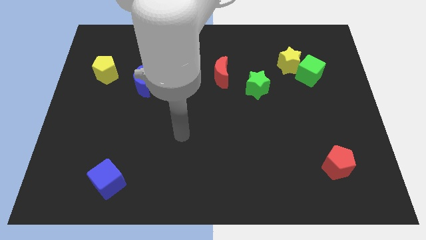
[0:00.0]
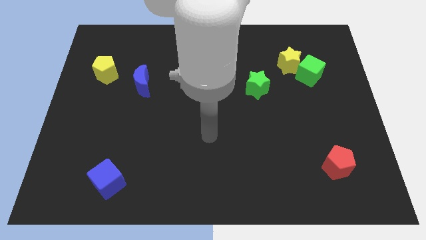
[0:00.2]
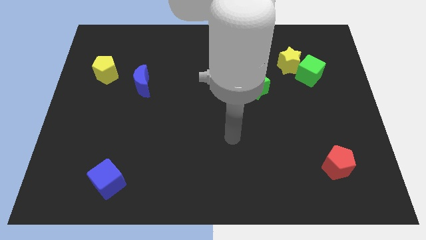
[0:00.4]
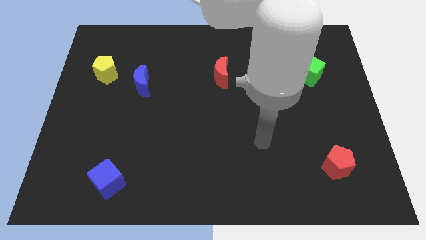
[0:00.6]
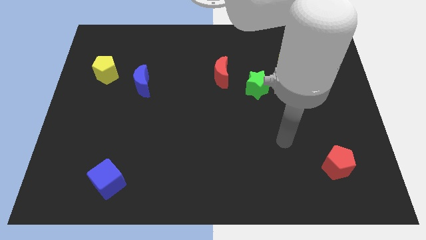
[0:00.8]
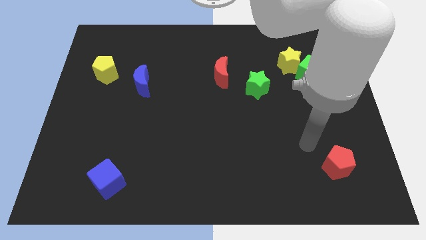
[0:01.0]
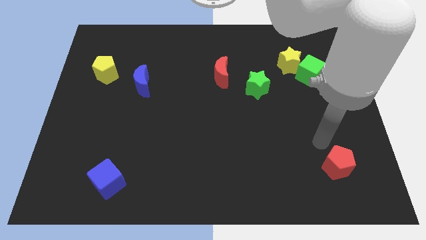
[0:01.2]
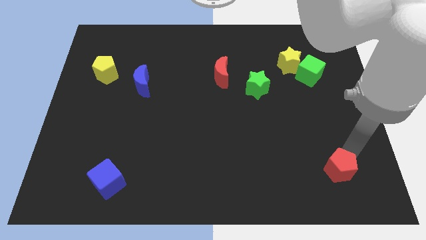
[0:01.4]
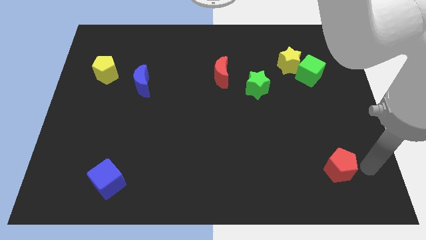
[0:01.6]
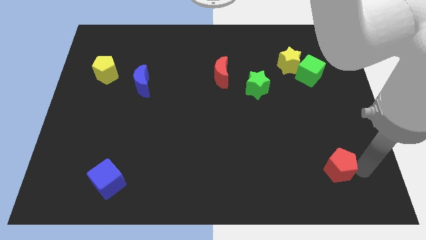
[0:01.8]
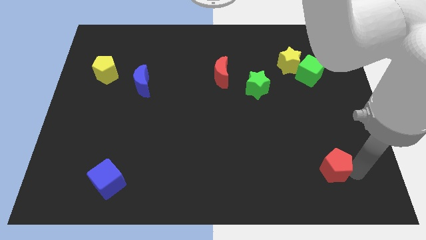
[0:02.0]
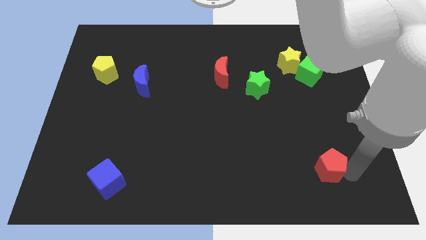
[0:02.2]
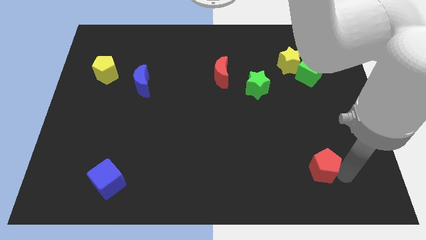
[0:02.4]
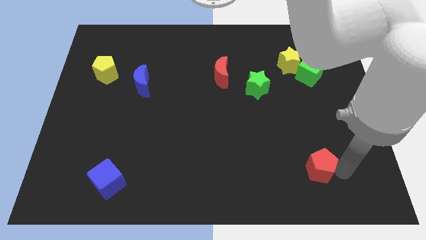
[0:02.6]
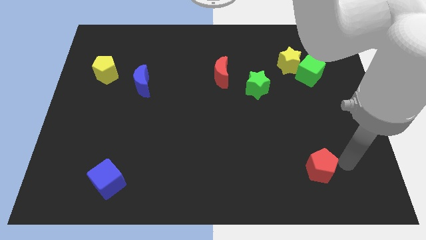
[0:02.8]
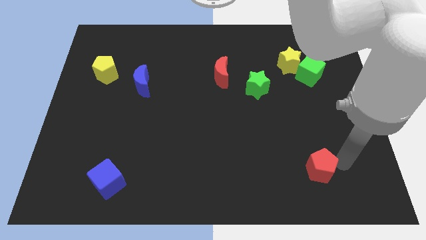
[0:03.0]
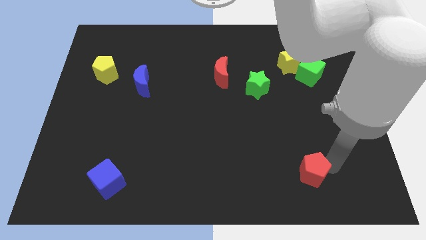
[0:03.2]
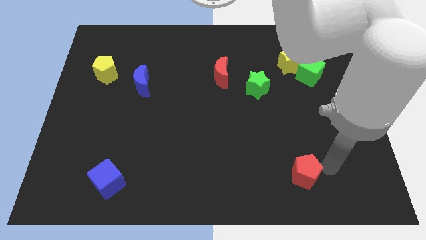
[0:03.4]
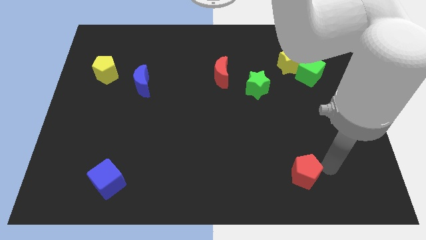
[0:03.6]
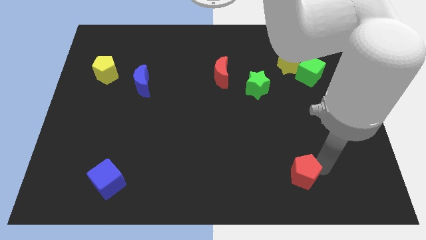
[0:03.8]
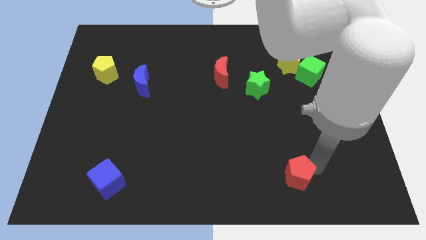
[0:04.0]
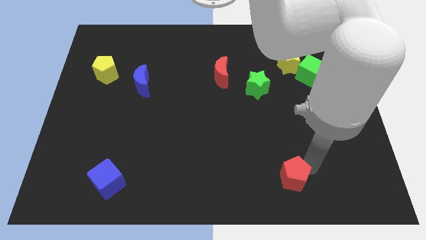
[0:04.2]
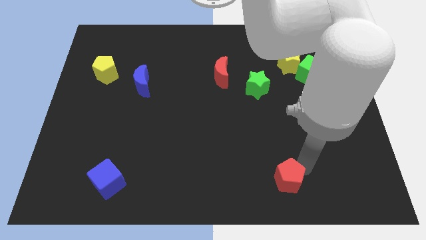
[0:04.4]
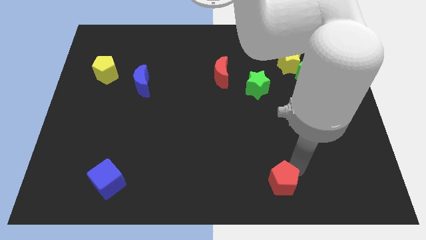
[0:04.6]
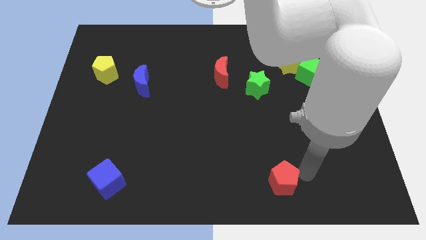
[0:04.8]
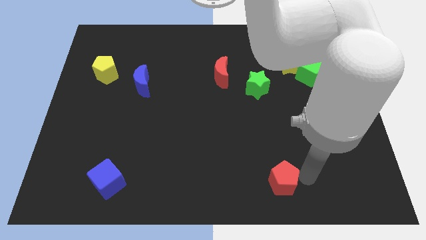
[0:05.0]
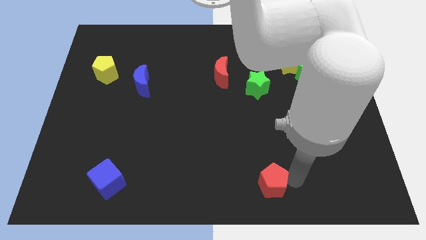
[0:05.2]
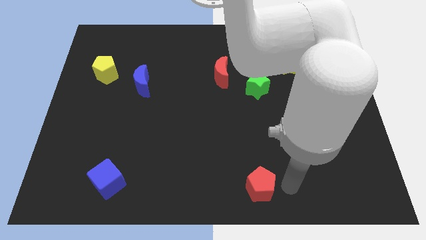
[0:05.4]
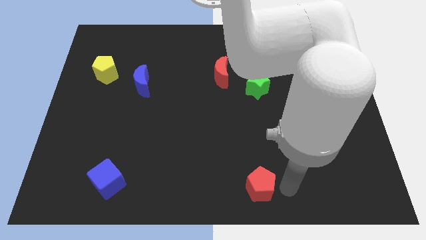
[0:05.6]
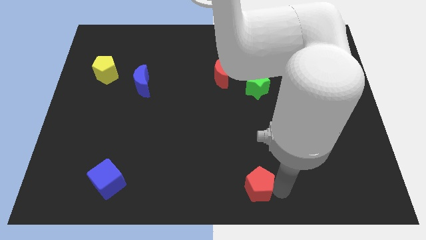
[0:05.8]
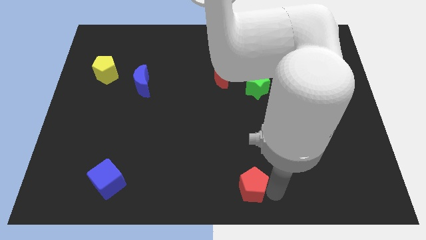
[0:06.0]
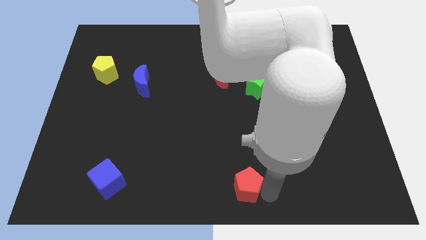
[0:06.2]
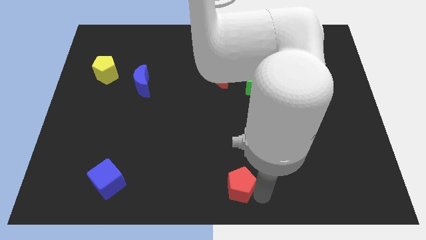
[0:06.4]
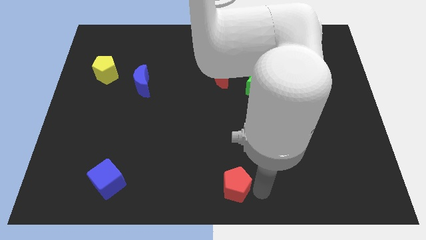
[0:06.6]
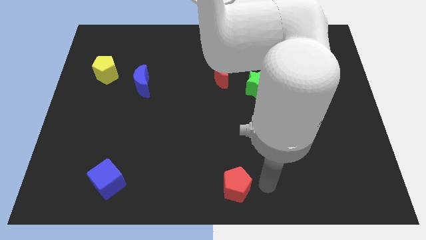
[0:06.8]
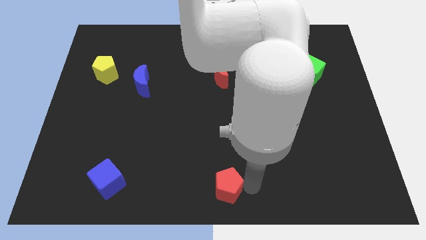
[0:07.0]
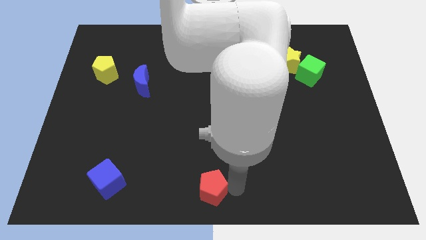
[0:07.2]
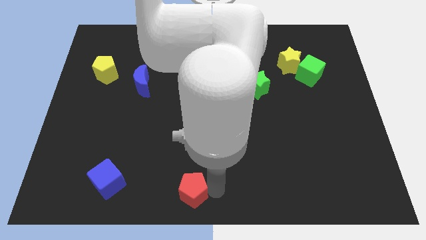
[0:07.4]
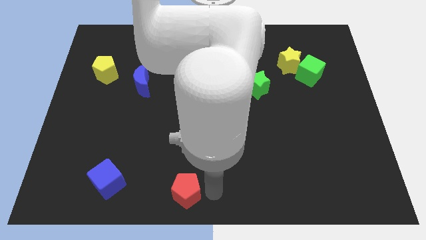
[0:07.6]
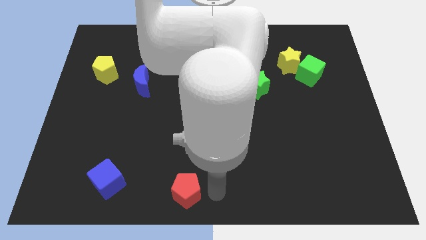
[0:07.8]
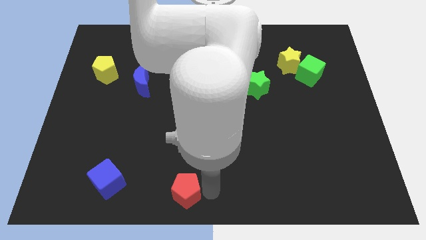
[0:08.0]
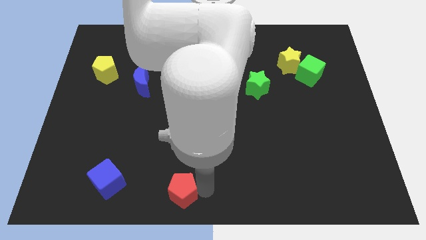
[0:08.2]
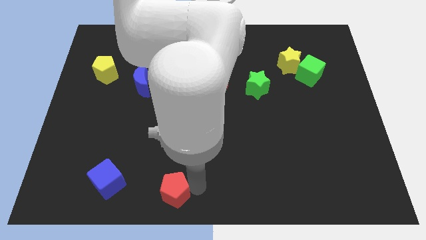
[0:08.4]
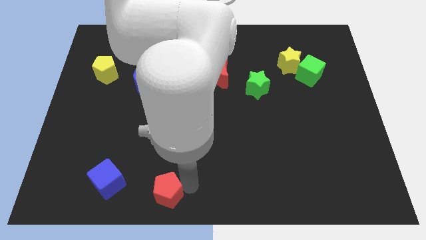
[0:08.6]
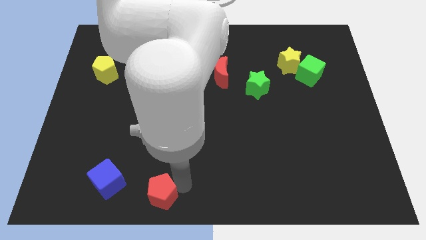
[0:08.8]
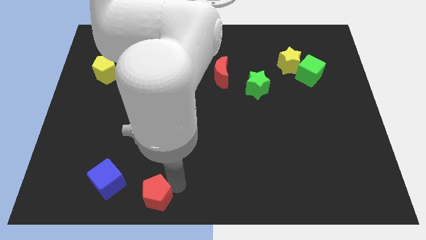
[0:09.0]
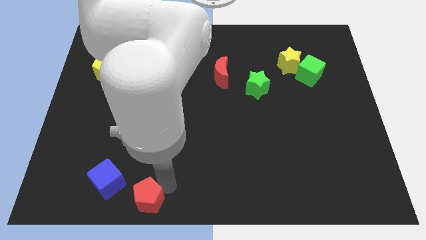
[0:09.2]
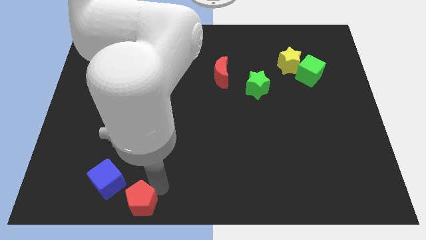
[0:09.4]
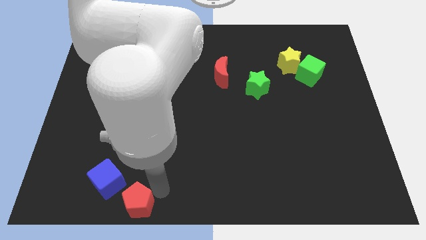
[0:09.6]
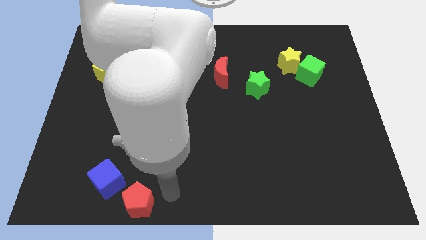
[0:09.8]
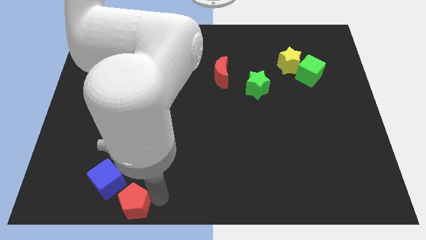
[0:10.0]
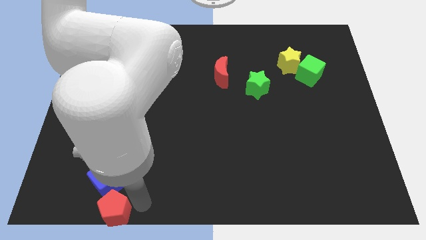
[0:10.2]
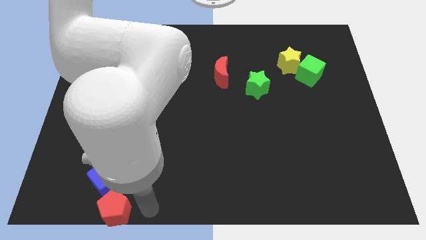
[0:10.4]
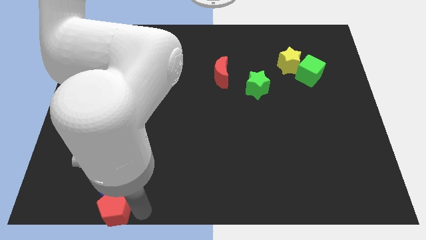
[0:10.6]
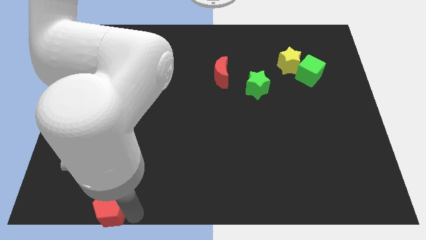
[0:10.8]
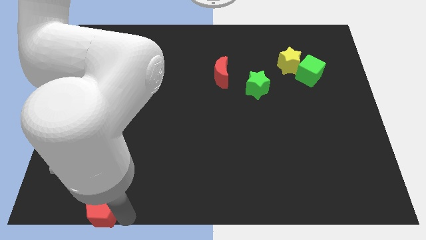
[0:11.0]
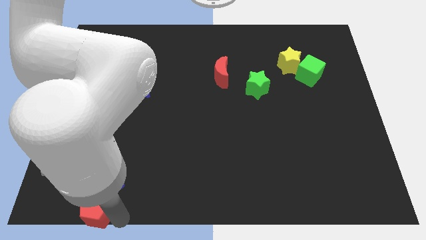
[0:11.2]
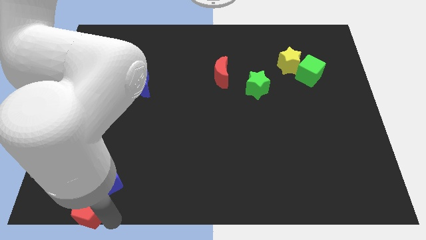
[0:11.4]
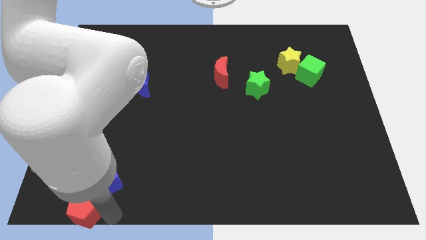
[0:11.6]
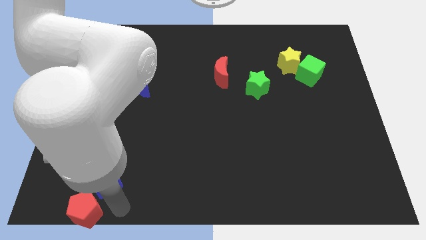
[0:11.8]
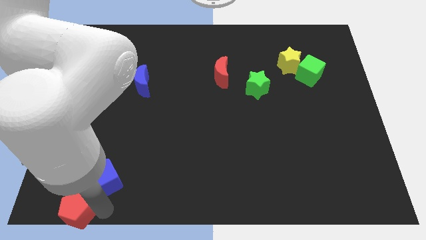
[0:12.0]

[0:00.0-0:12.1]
slide the red pentagon to the bottom left
